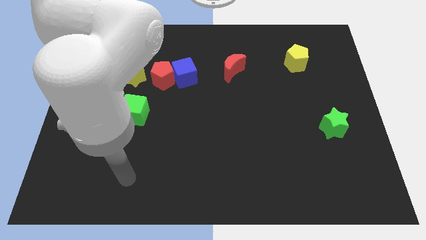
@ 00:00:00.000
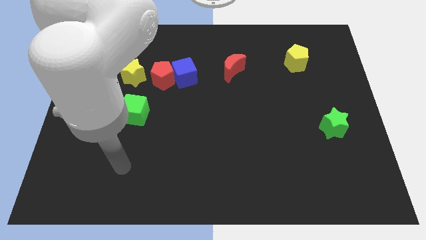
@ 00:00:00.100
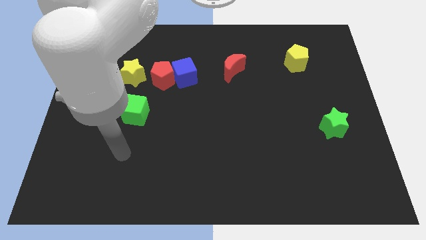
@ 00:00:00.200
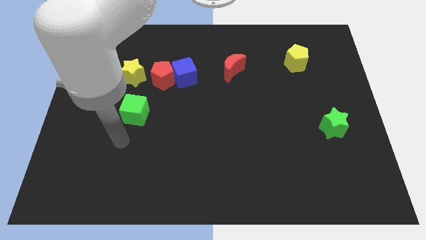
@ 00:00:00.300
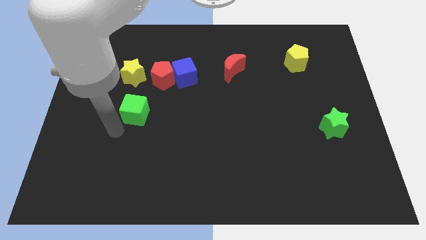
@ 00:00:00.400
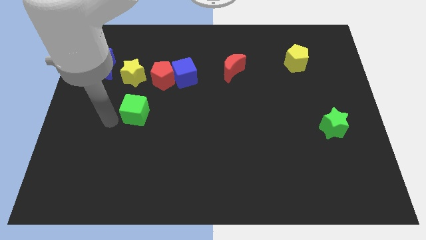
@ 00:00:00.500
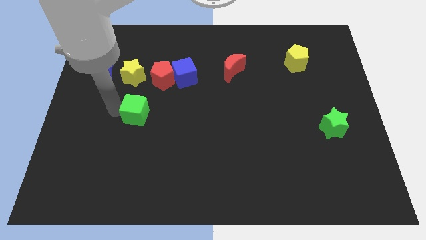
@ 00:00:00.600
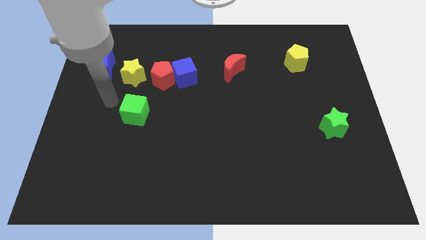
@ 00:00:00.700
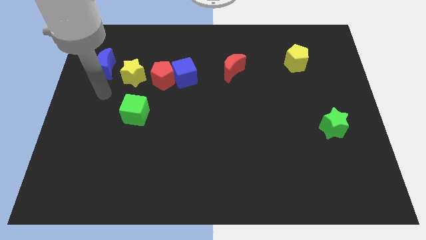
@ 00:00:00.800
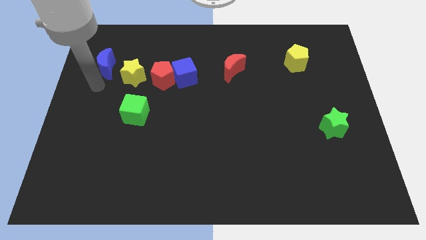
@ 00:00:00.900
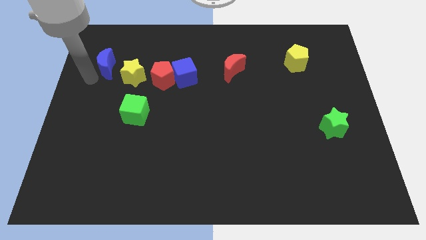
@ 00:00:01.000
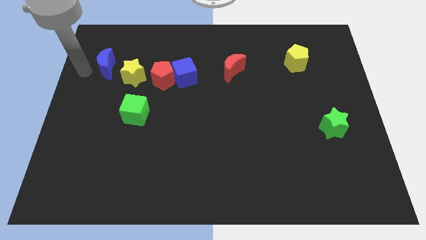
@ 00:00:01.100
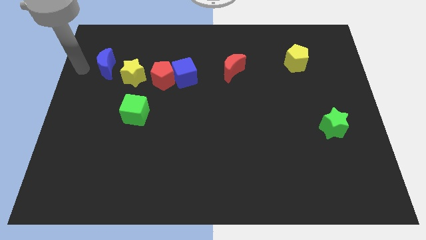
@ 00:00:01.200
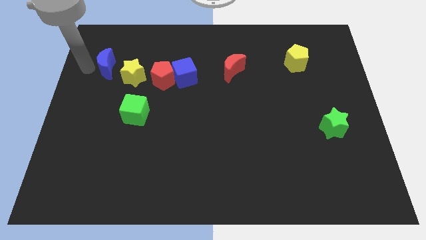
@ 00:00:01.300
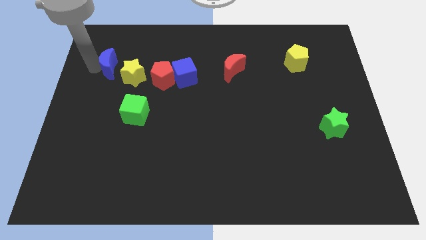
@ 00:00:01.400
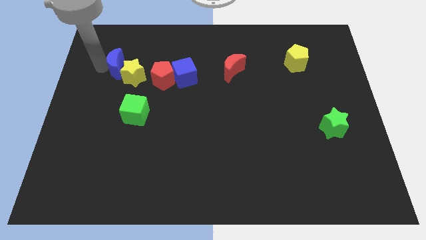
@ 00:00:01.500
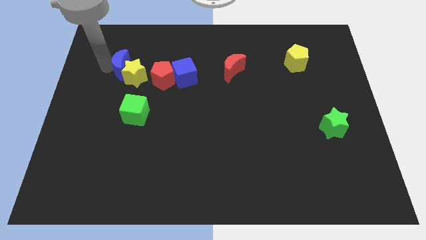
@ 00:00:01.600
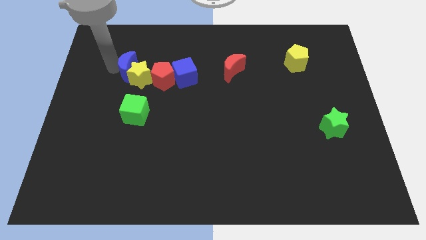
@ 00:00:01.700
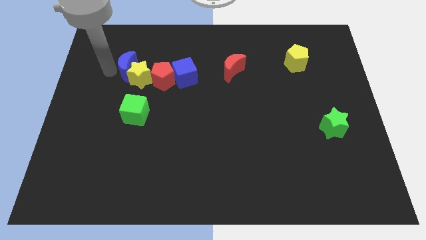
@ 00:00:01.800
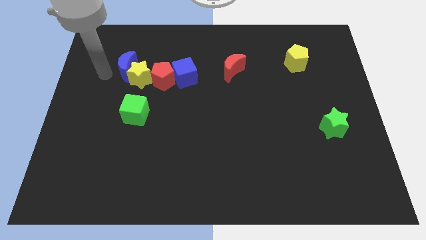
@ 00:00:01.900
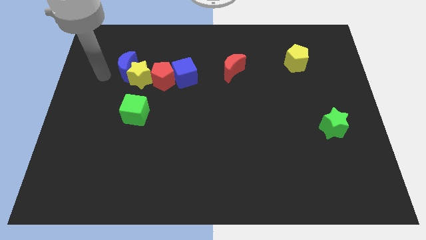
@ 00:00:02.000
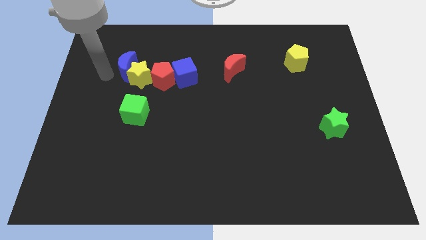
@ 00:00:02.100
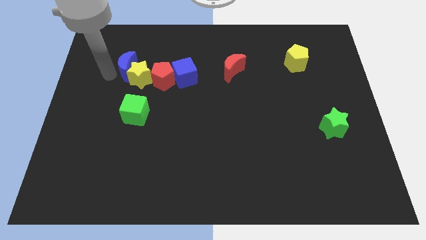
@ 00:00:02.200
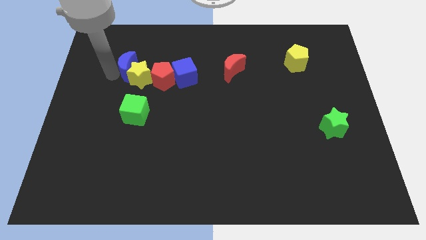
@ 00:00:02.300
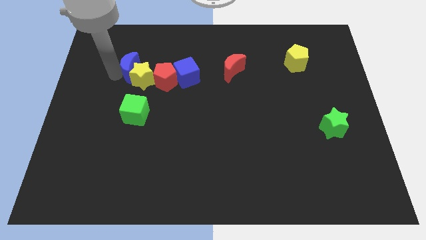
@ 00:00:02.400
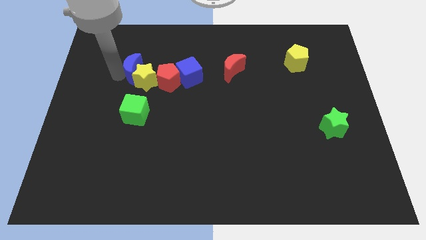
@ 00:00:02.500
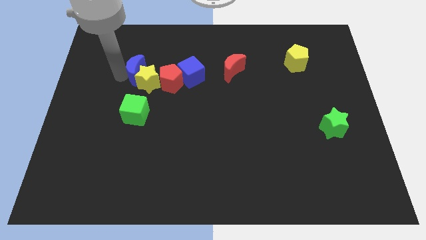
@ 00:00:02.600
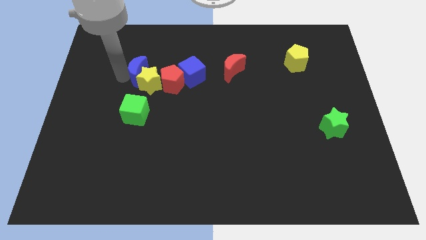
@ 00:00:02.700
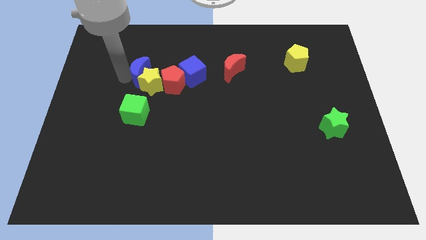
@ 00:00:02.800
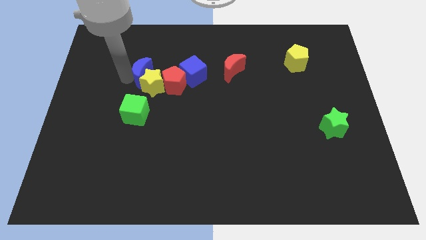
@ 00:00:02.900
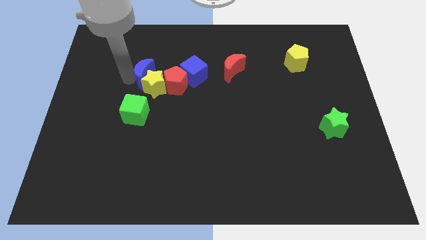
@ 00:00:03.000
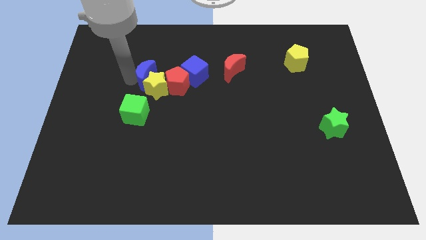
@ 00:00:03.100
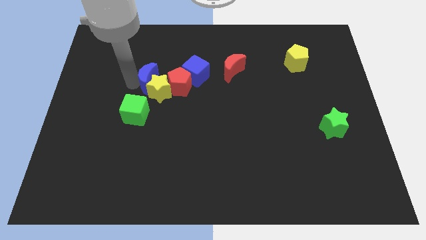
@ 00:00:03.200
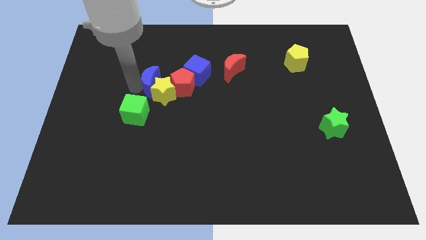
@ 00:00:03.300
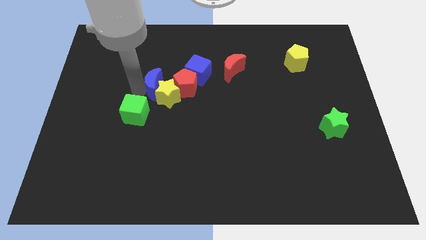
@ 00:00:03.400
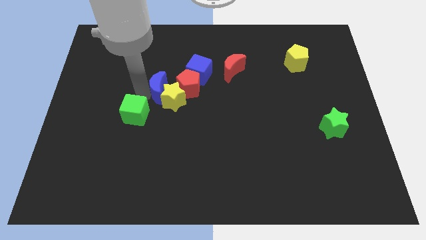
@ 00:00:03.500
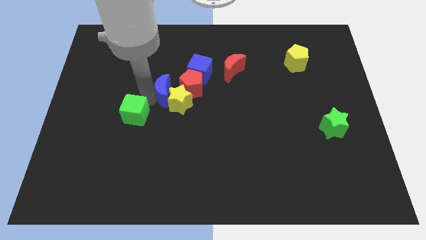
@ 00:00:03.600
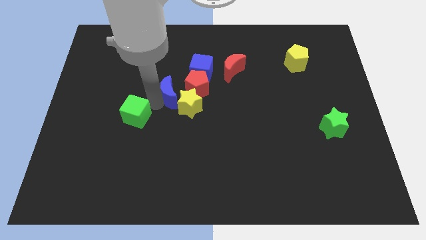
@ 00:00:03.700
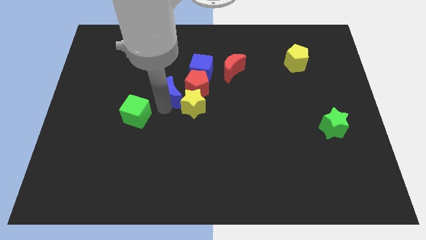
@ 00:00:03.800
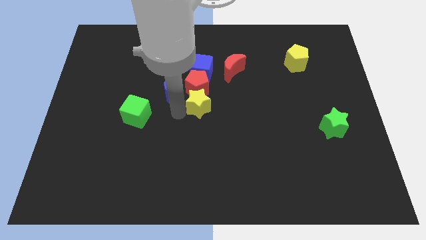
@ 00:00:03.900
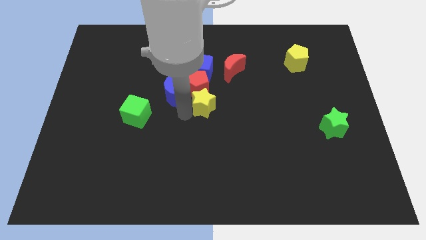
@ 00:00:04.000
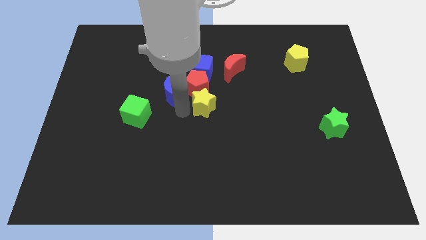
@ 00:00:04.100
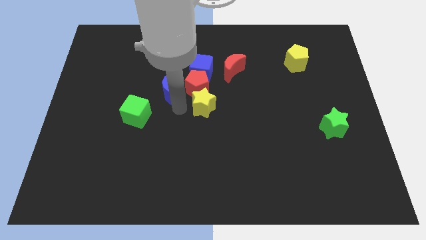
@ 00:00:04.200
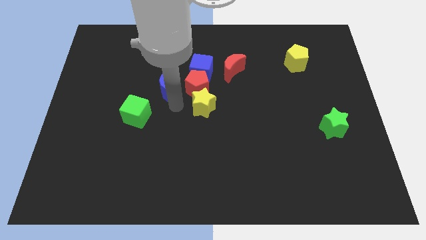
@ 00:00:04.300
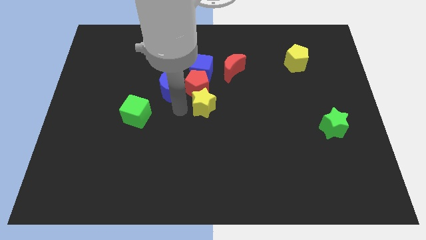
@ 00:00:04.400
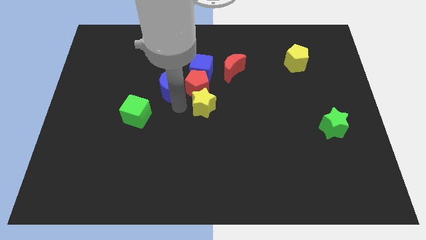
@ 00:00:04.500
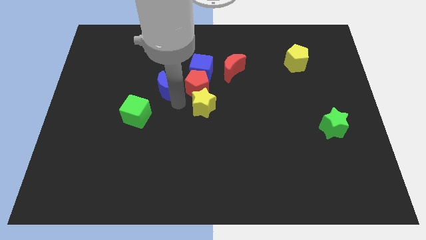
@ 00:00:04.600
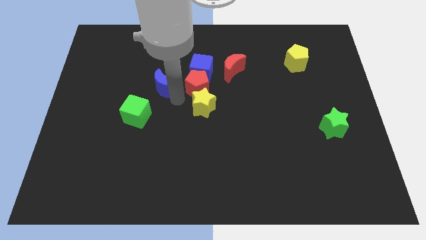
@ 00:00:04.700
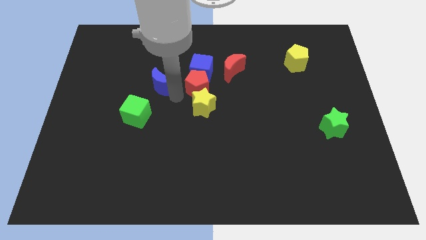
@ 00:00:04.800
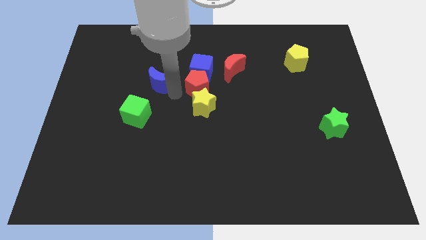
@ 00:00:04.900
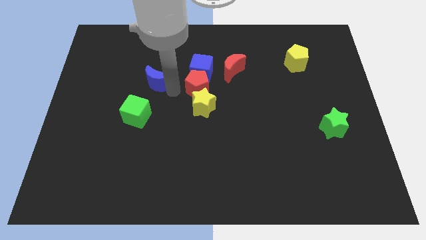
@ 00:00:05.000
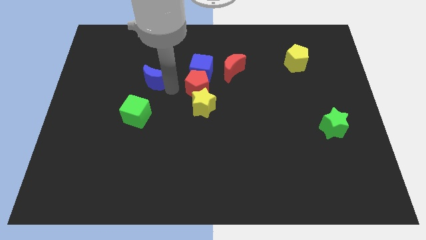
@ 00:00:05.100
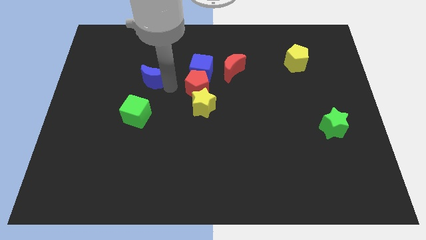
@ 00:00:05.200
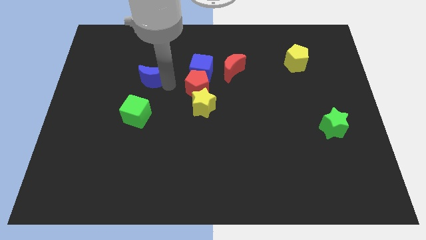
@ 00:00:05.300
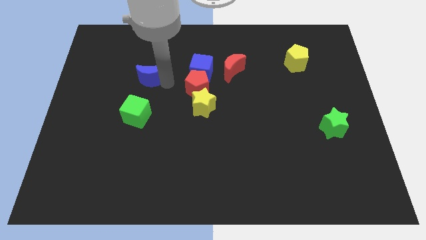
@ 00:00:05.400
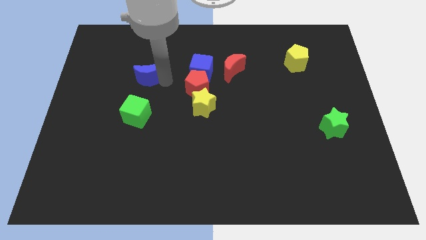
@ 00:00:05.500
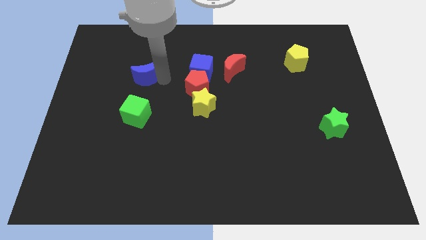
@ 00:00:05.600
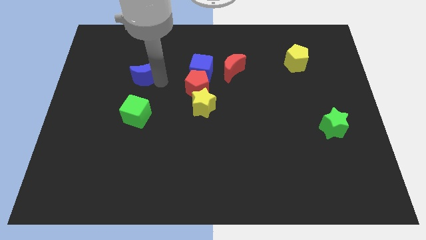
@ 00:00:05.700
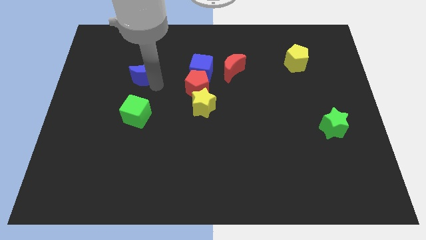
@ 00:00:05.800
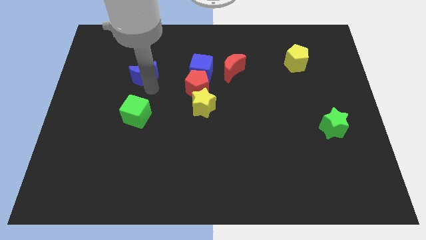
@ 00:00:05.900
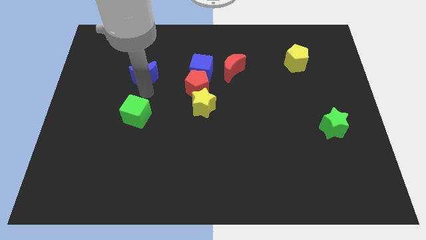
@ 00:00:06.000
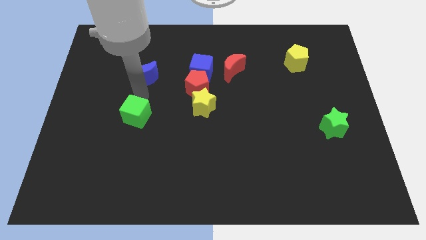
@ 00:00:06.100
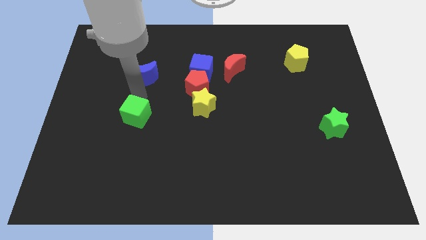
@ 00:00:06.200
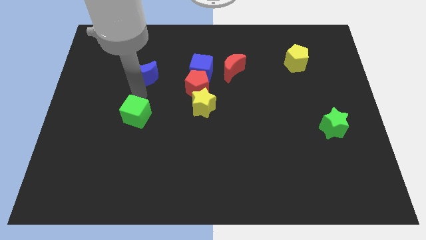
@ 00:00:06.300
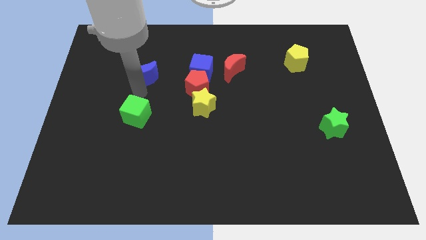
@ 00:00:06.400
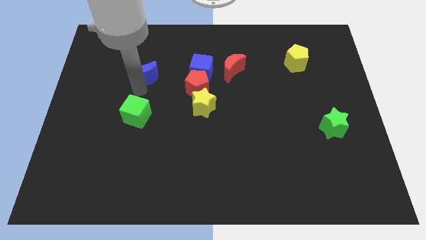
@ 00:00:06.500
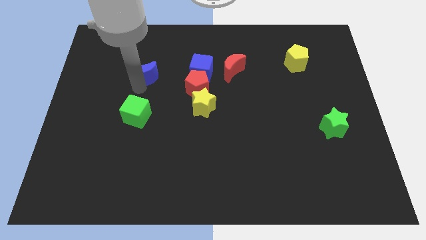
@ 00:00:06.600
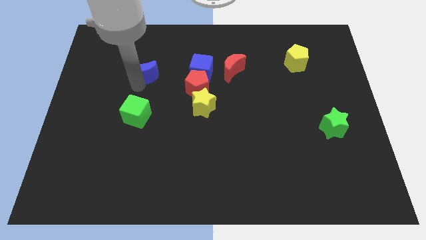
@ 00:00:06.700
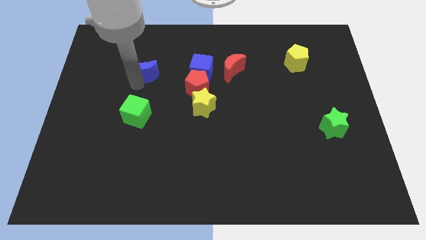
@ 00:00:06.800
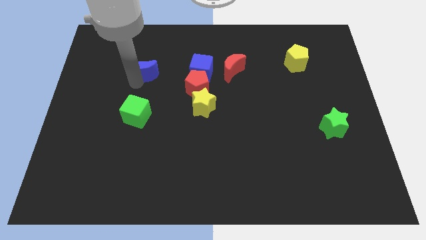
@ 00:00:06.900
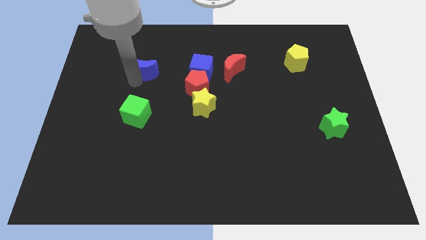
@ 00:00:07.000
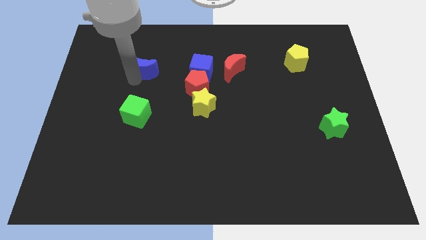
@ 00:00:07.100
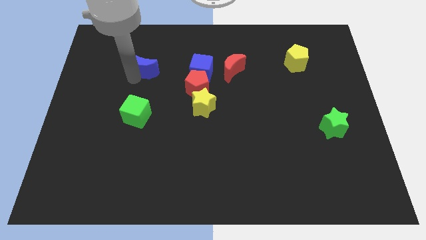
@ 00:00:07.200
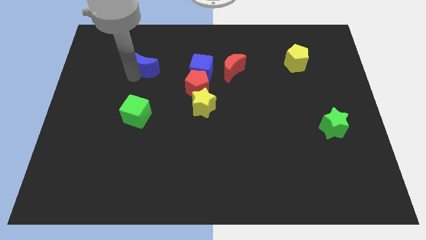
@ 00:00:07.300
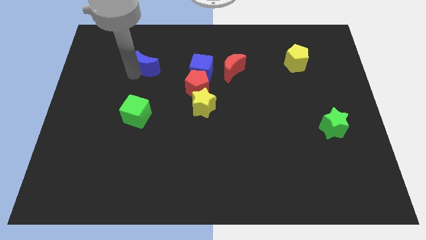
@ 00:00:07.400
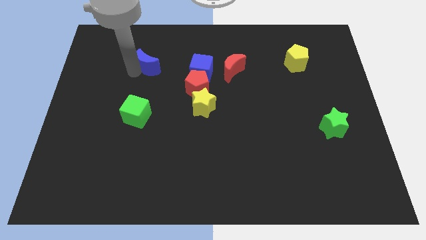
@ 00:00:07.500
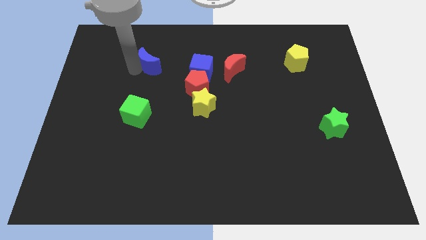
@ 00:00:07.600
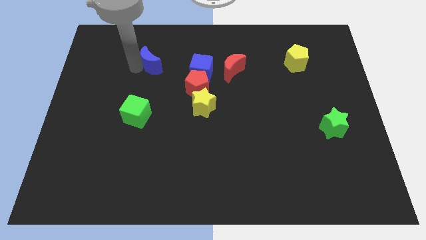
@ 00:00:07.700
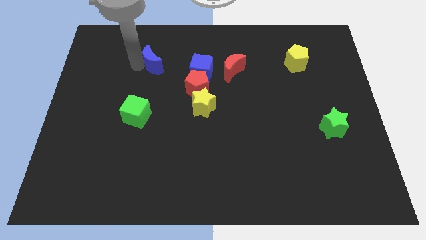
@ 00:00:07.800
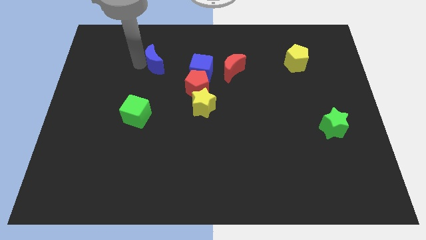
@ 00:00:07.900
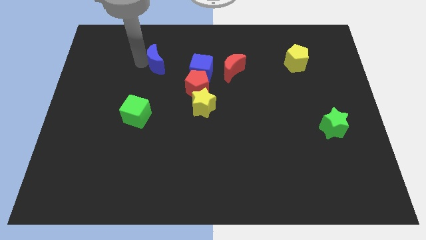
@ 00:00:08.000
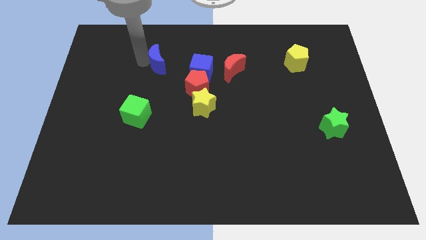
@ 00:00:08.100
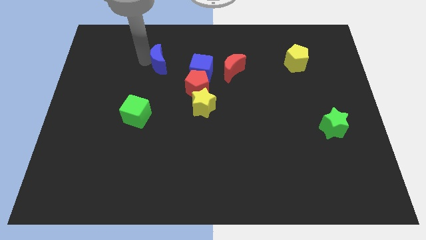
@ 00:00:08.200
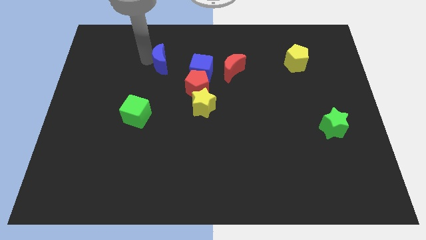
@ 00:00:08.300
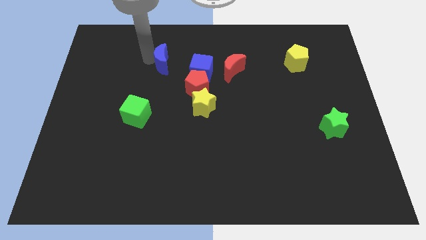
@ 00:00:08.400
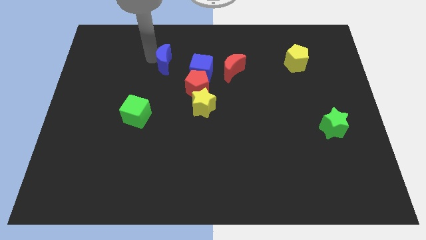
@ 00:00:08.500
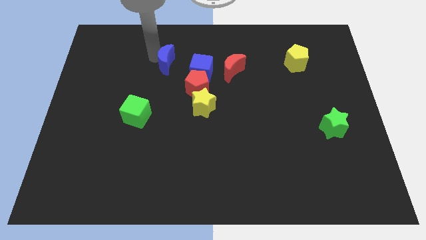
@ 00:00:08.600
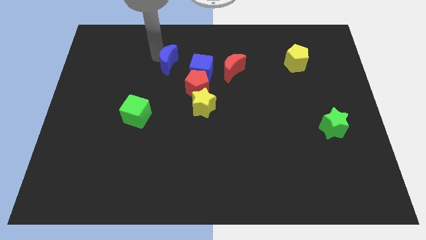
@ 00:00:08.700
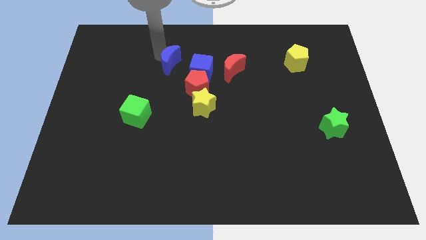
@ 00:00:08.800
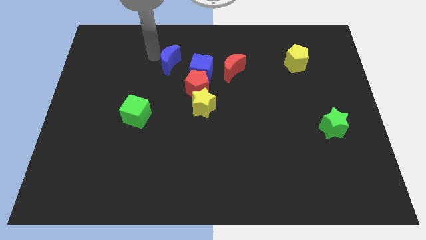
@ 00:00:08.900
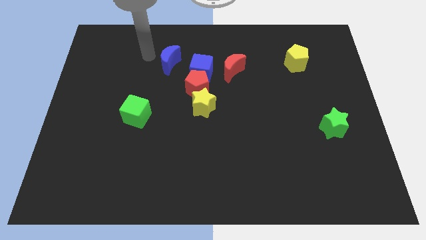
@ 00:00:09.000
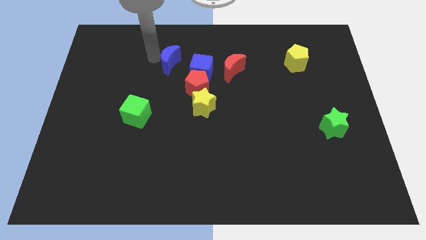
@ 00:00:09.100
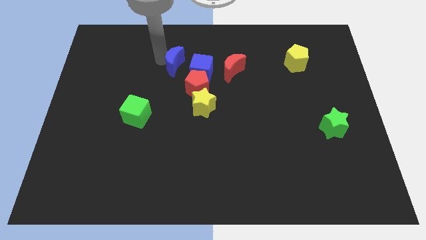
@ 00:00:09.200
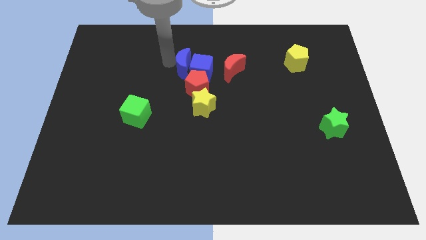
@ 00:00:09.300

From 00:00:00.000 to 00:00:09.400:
move the blue moon next to the blue cube
